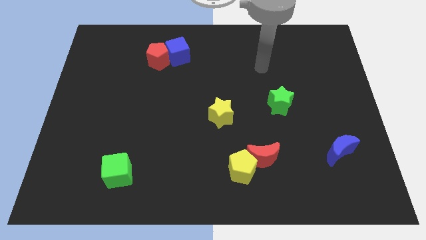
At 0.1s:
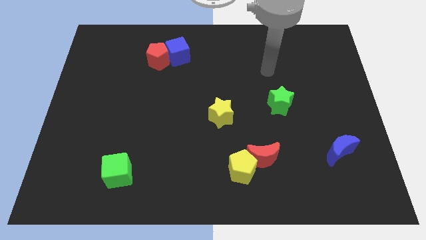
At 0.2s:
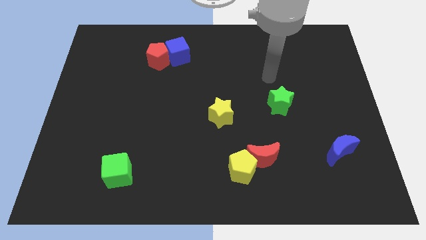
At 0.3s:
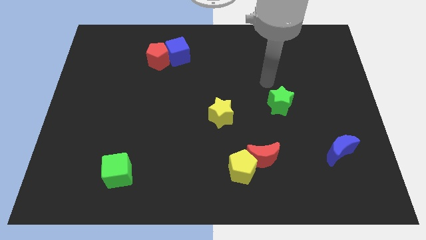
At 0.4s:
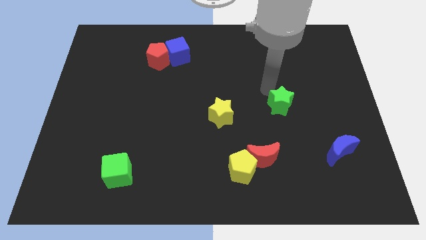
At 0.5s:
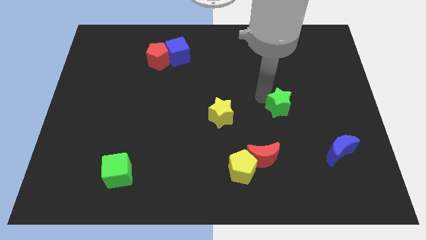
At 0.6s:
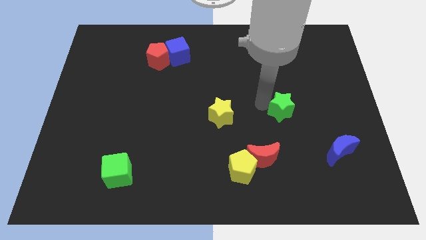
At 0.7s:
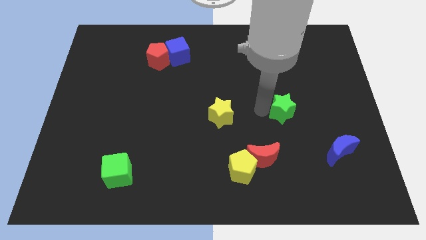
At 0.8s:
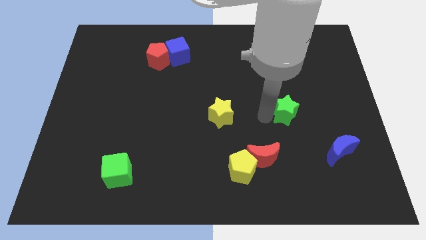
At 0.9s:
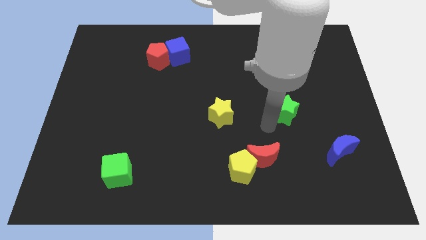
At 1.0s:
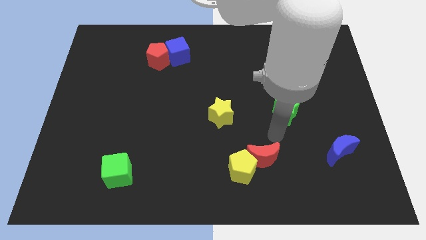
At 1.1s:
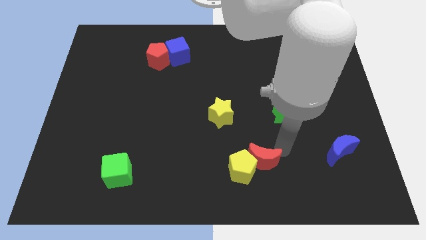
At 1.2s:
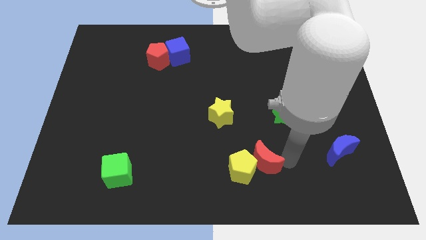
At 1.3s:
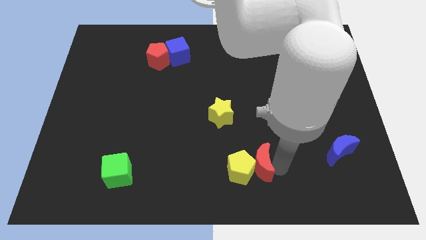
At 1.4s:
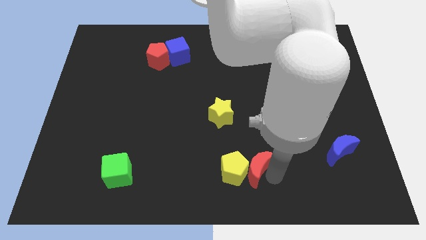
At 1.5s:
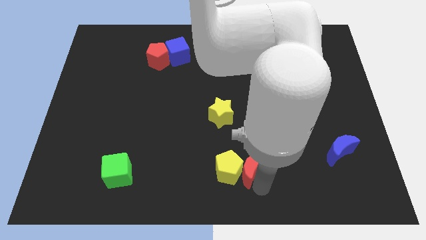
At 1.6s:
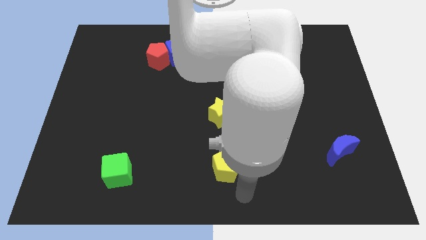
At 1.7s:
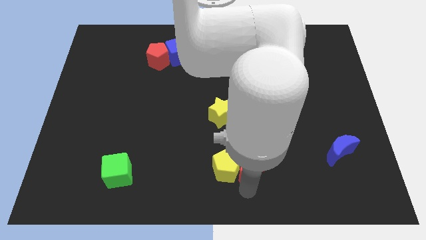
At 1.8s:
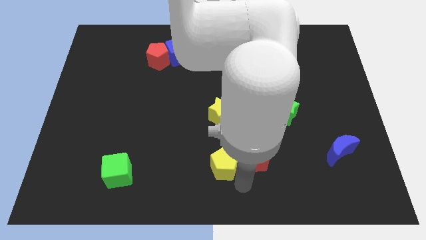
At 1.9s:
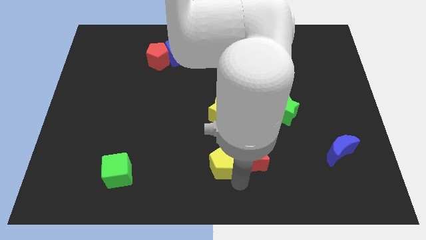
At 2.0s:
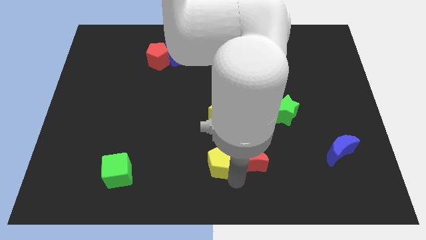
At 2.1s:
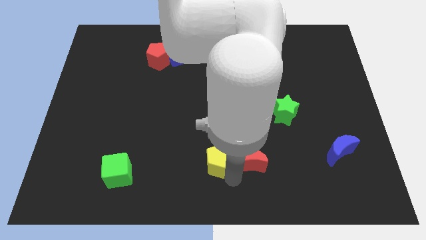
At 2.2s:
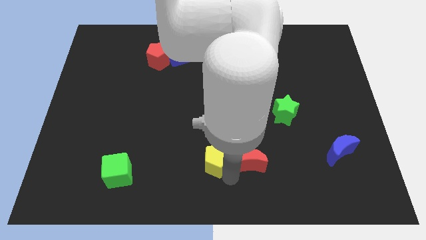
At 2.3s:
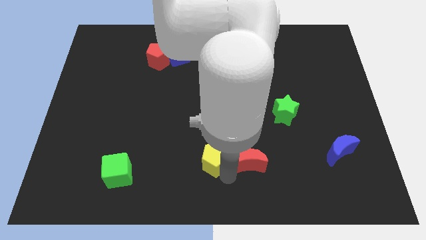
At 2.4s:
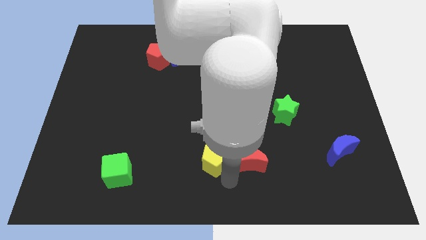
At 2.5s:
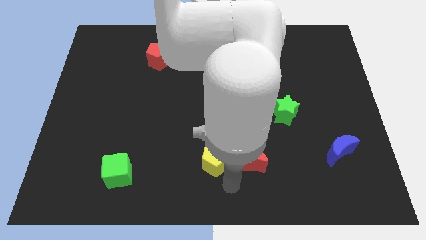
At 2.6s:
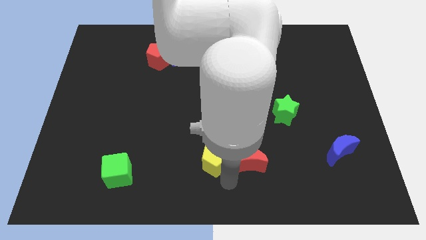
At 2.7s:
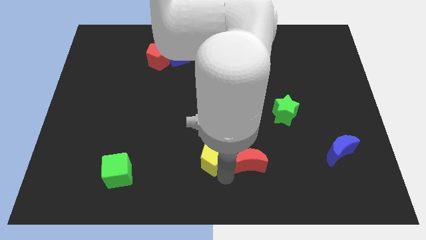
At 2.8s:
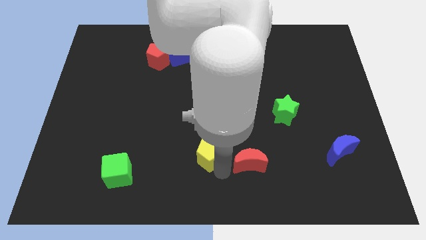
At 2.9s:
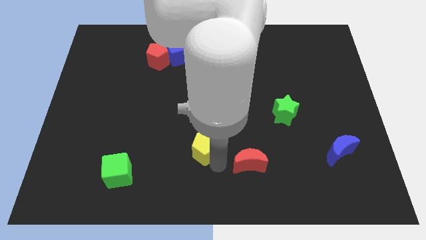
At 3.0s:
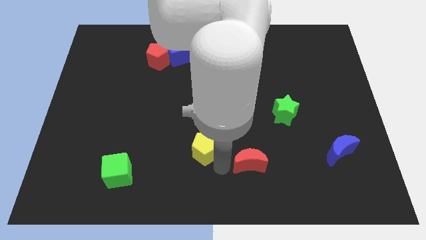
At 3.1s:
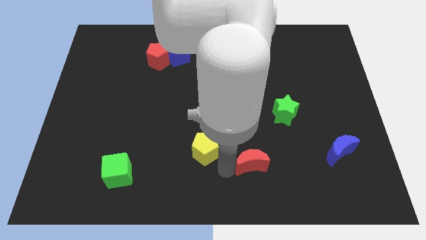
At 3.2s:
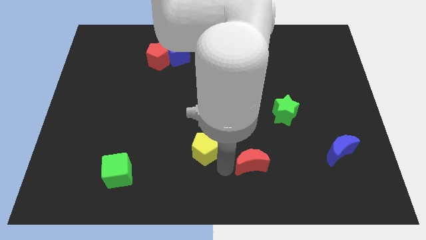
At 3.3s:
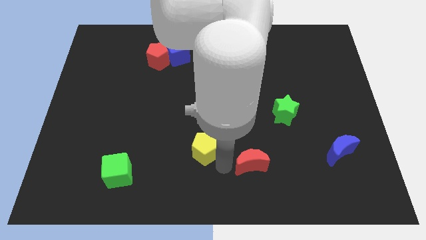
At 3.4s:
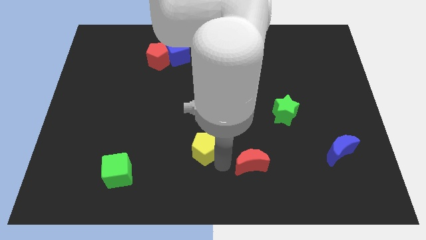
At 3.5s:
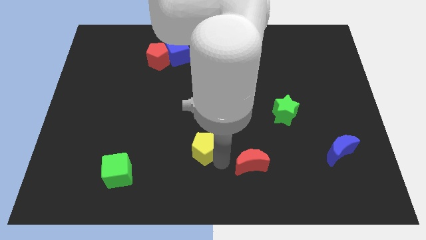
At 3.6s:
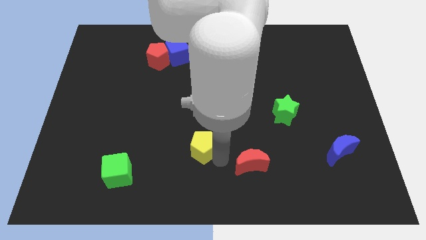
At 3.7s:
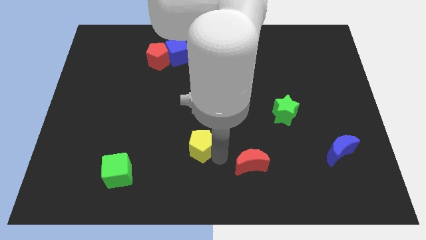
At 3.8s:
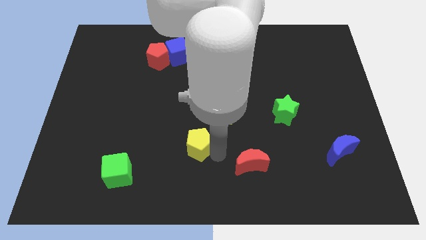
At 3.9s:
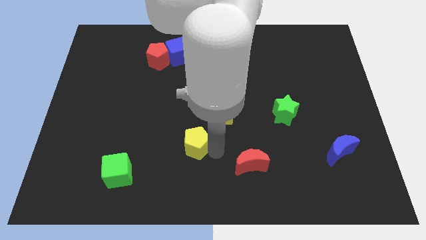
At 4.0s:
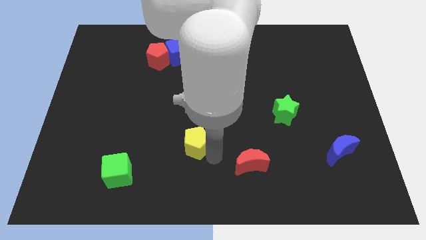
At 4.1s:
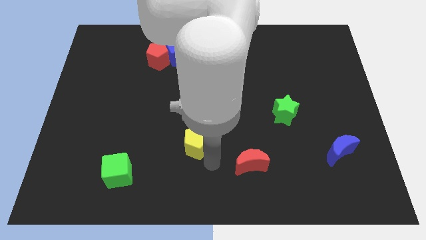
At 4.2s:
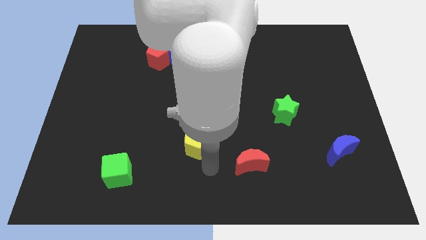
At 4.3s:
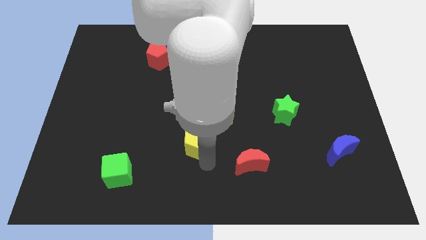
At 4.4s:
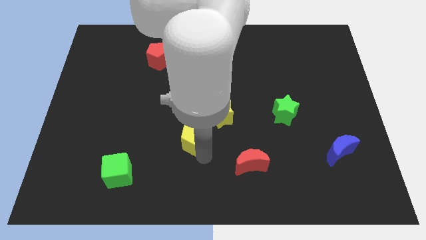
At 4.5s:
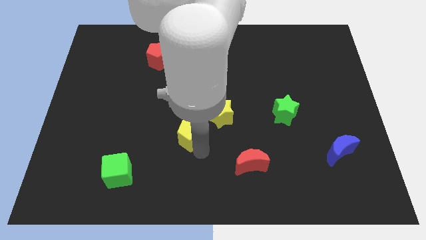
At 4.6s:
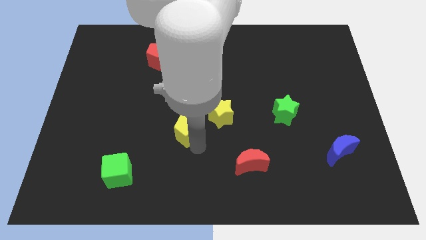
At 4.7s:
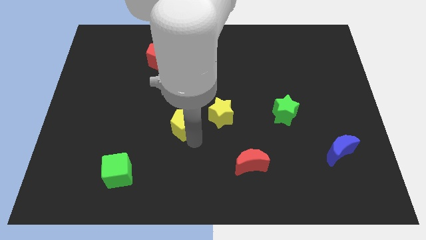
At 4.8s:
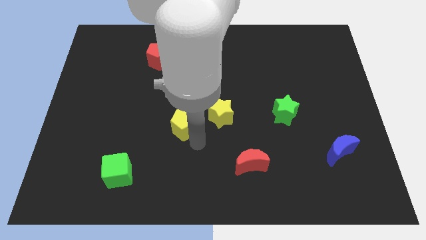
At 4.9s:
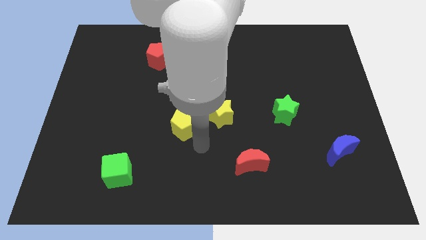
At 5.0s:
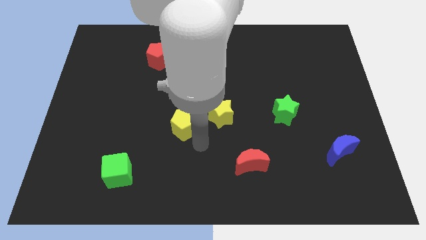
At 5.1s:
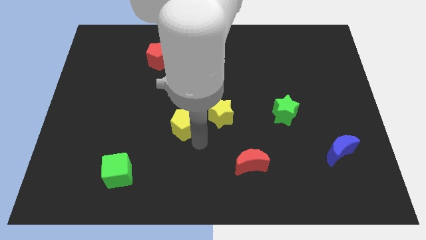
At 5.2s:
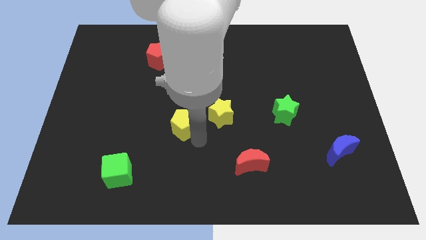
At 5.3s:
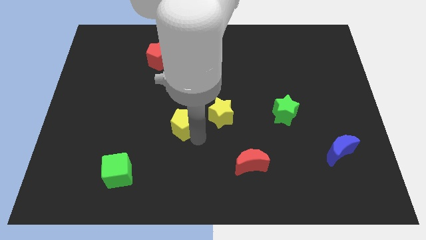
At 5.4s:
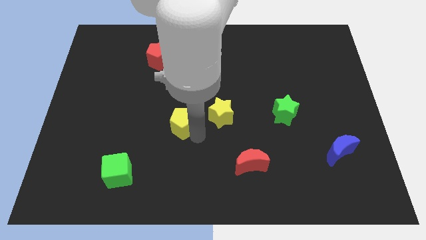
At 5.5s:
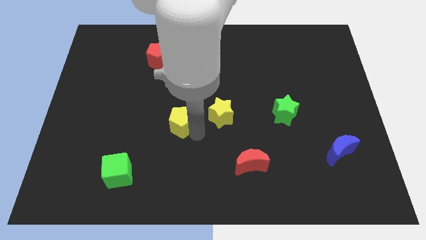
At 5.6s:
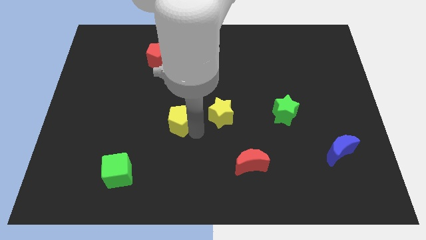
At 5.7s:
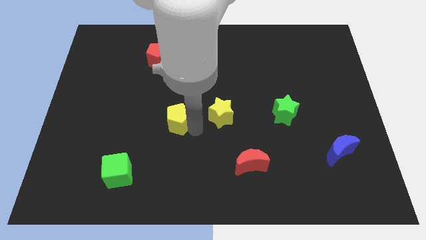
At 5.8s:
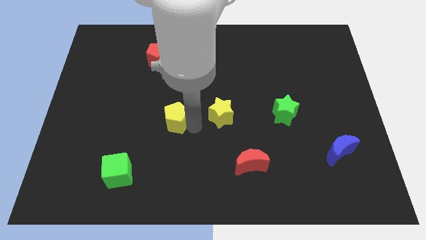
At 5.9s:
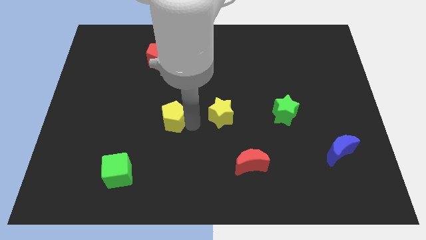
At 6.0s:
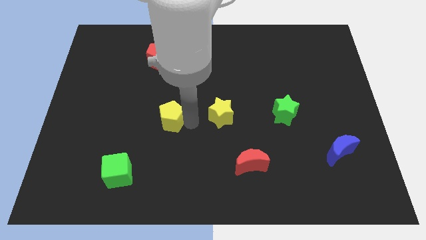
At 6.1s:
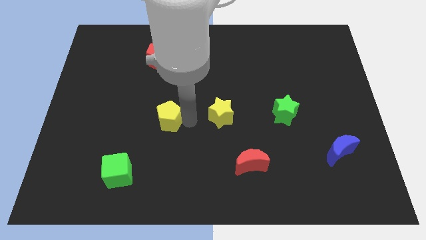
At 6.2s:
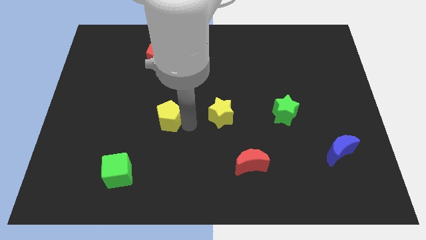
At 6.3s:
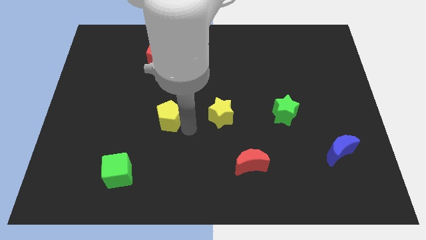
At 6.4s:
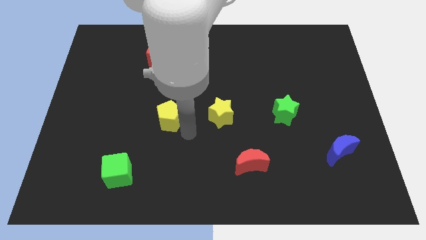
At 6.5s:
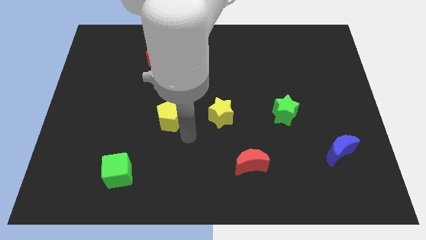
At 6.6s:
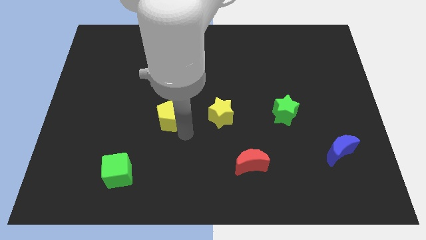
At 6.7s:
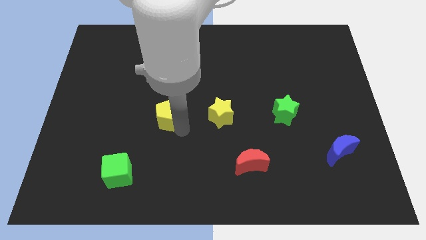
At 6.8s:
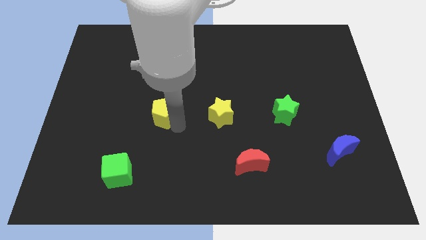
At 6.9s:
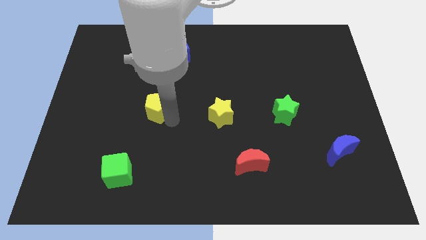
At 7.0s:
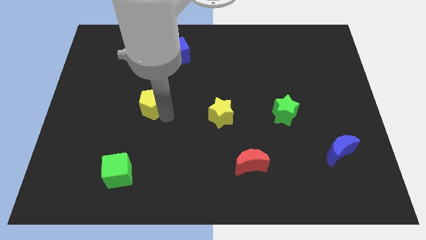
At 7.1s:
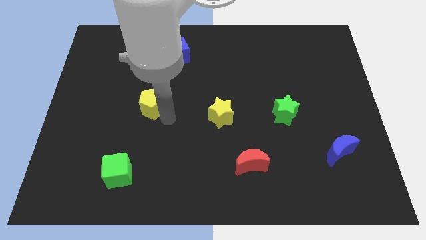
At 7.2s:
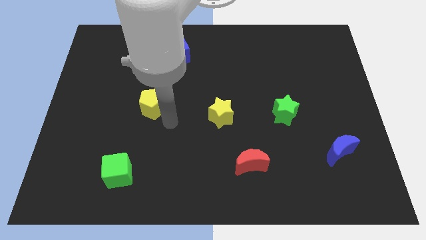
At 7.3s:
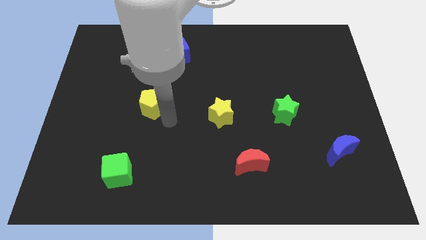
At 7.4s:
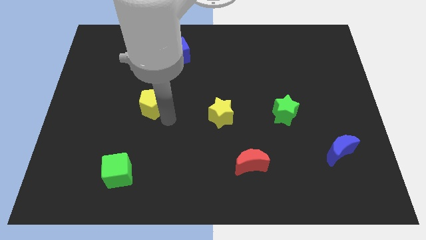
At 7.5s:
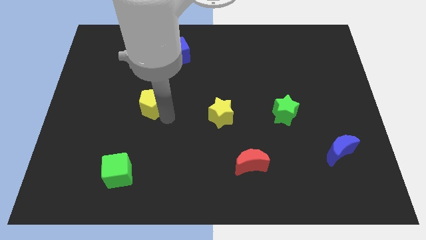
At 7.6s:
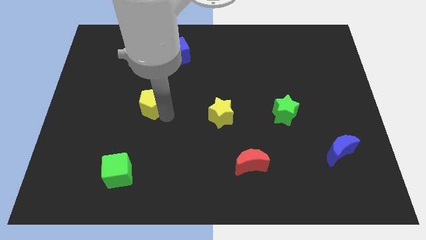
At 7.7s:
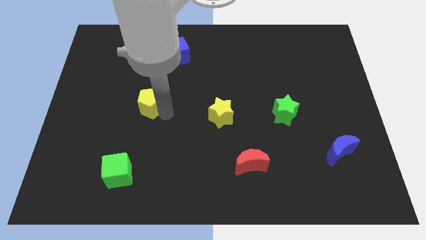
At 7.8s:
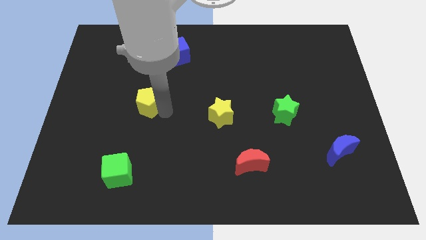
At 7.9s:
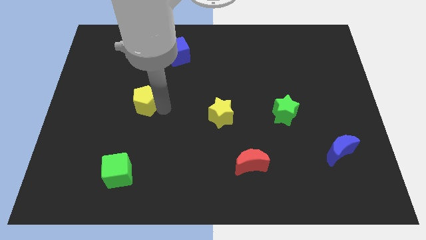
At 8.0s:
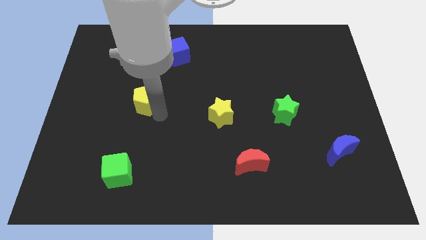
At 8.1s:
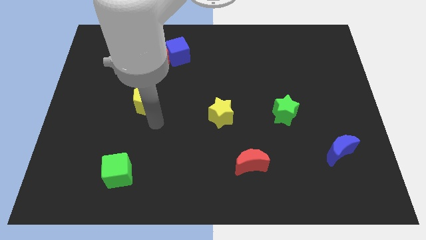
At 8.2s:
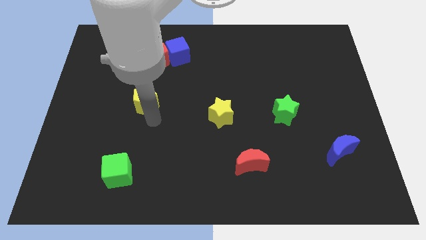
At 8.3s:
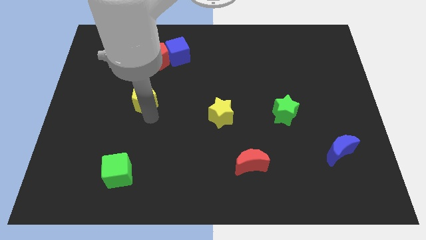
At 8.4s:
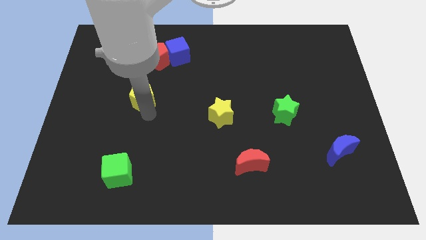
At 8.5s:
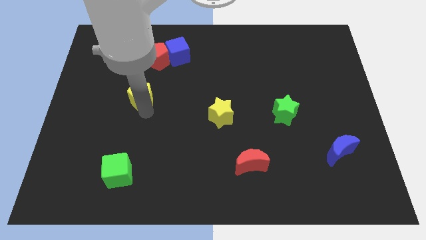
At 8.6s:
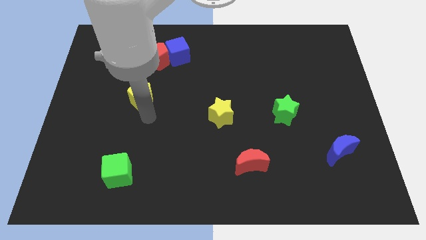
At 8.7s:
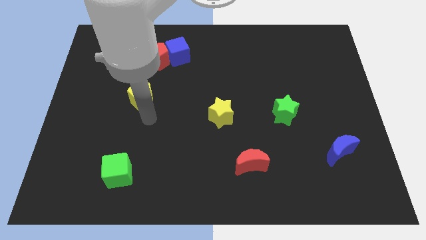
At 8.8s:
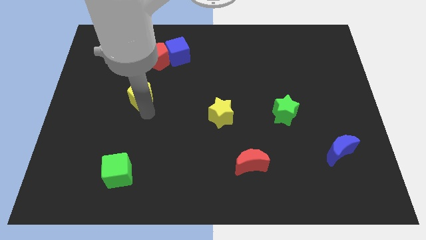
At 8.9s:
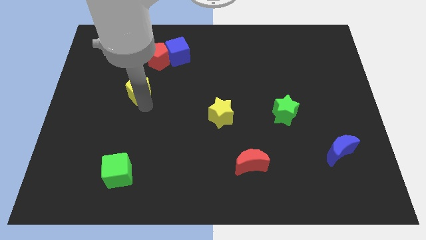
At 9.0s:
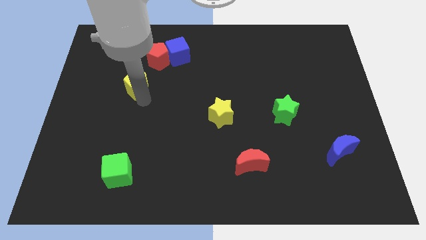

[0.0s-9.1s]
put the yellow pentagon to the bottom left side of the red pentagon
